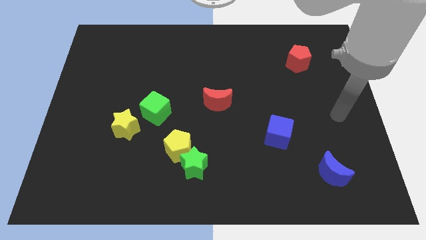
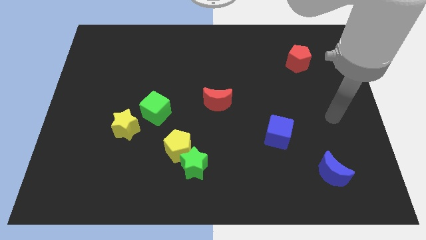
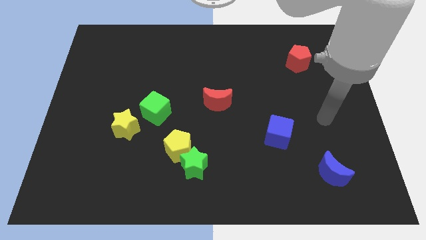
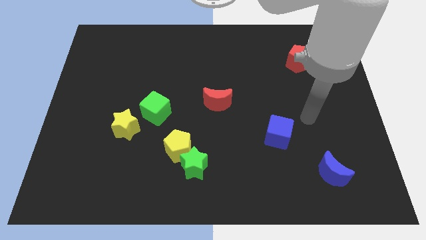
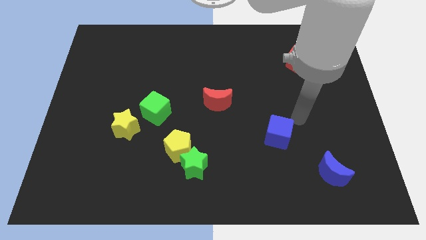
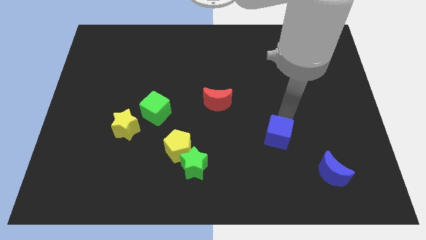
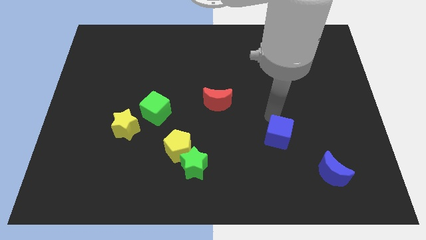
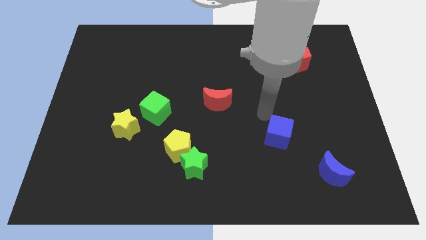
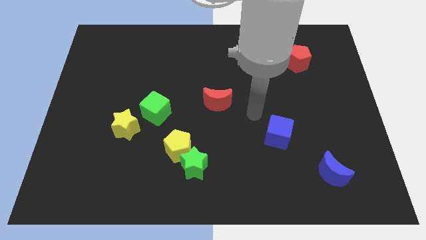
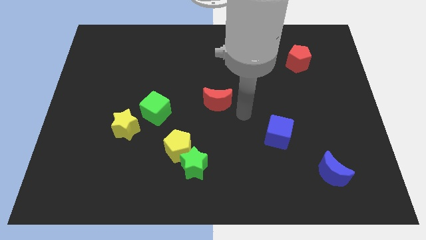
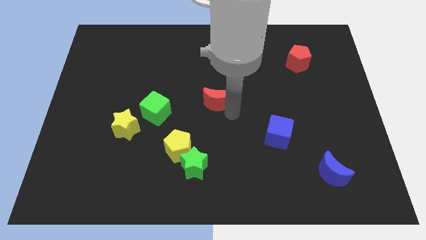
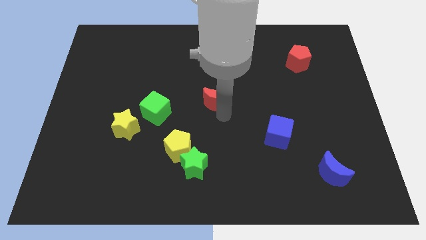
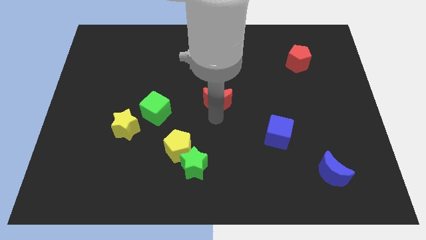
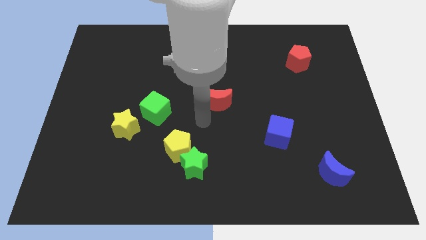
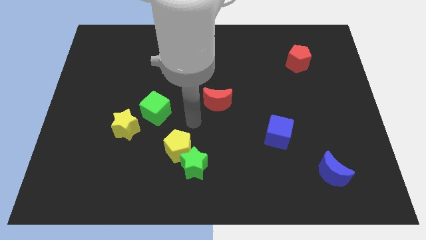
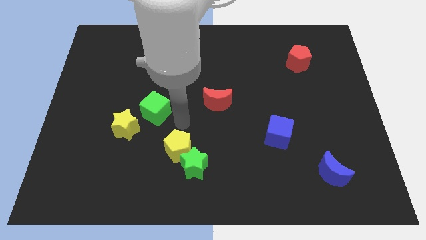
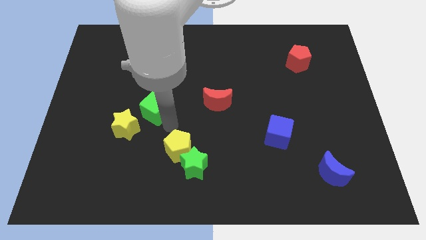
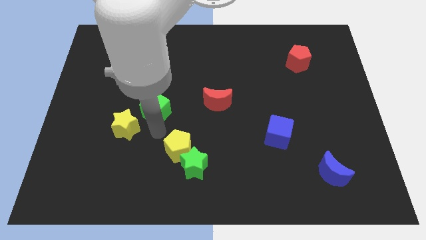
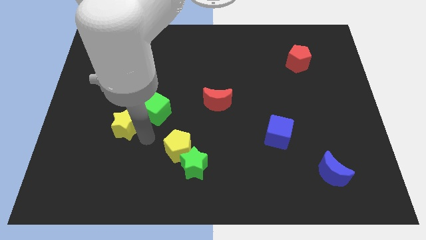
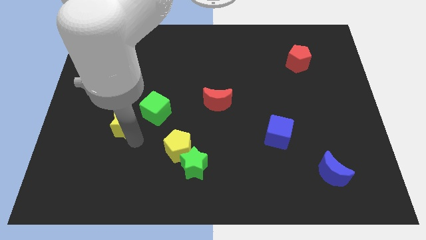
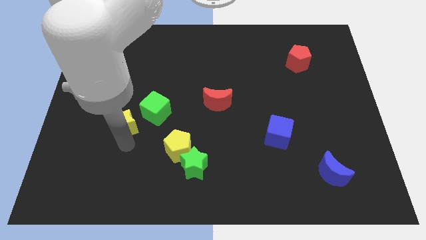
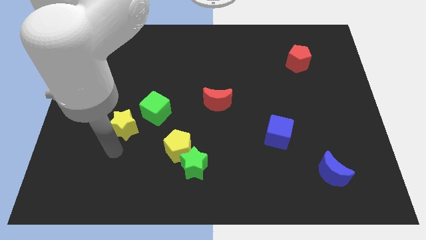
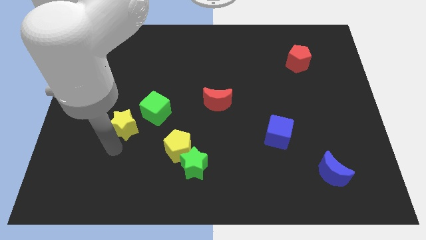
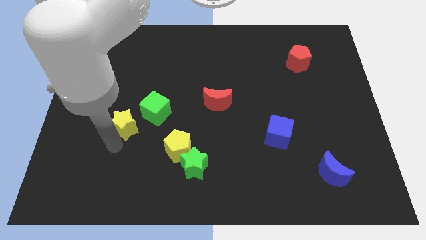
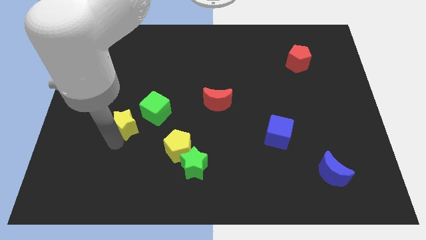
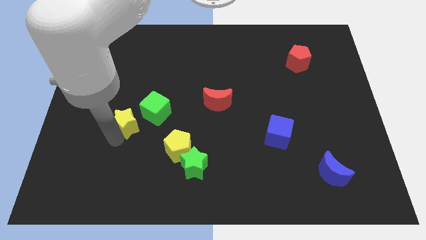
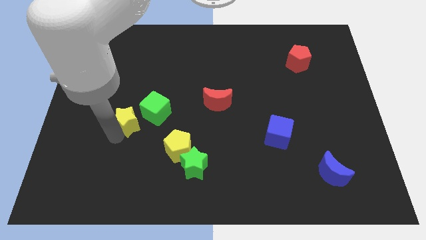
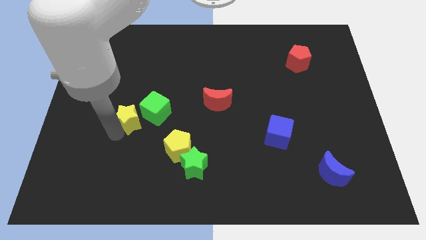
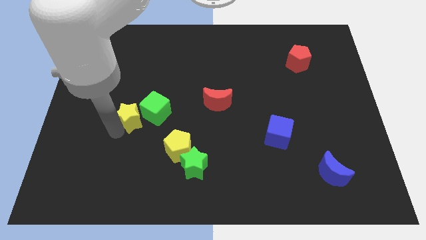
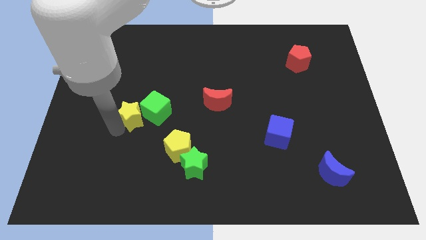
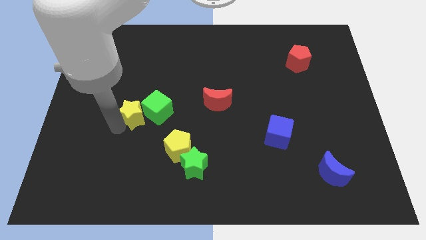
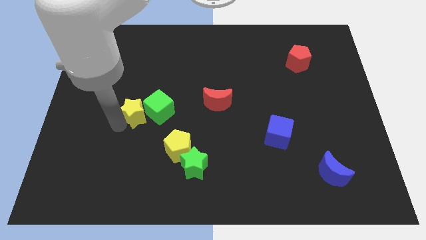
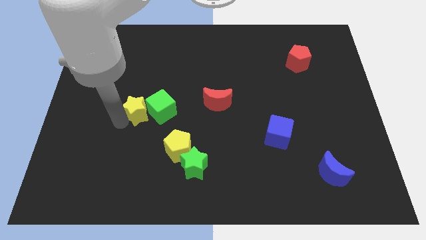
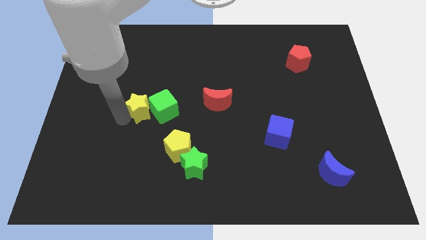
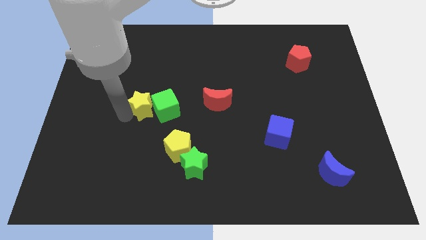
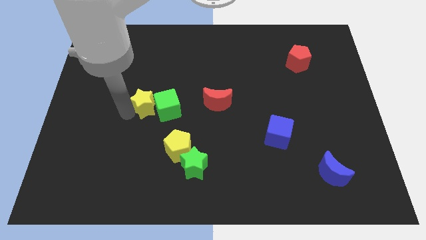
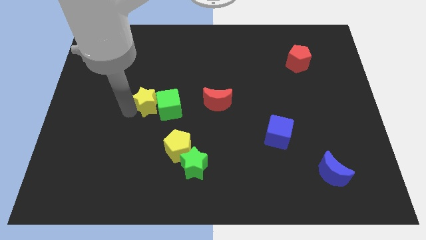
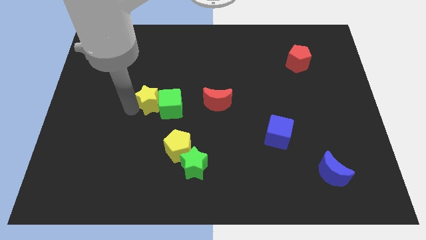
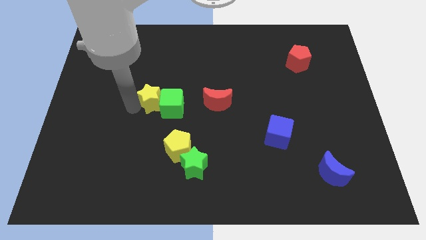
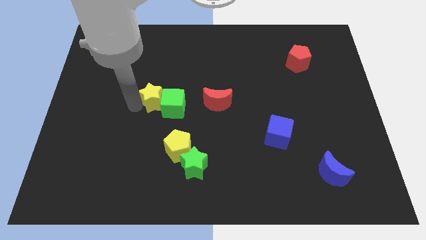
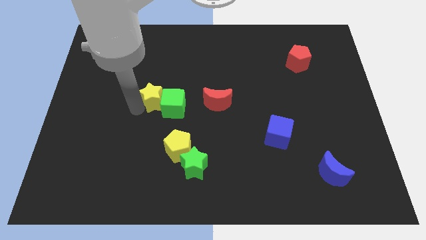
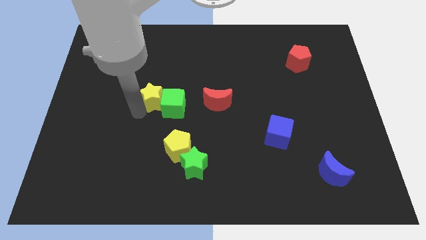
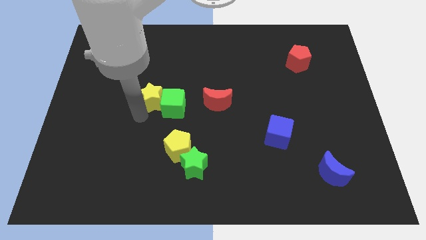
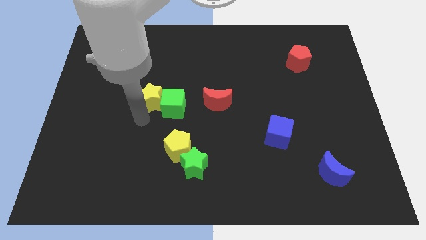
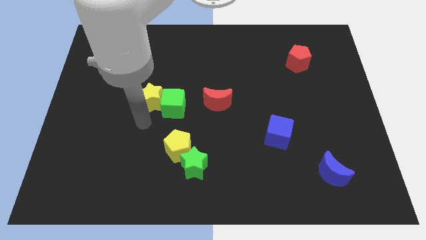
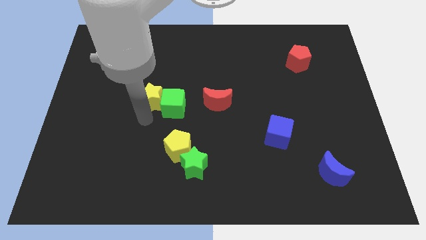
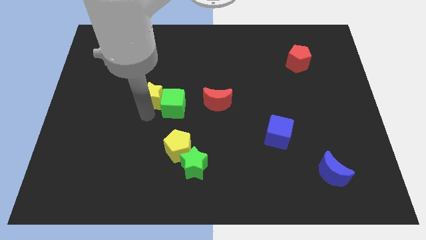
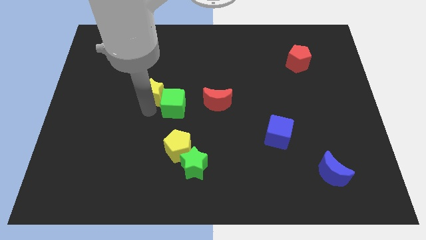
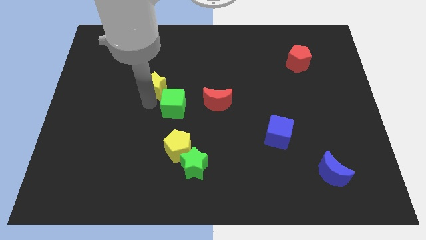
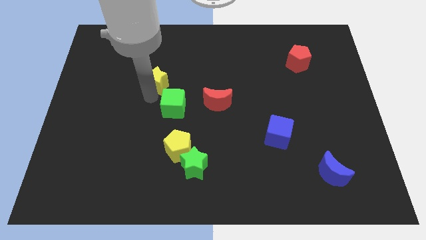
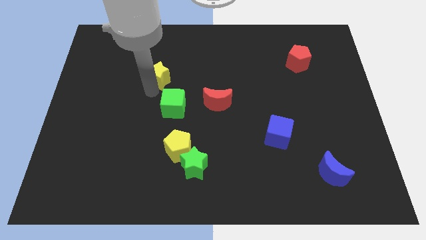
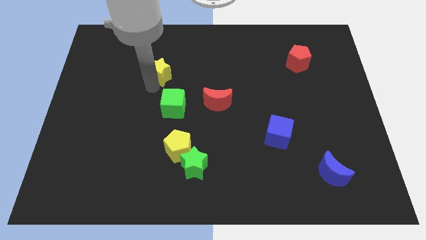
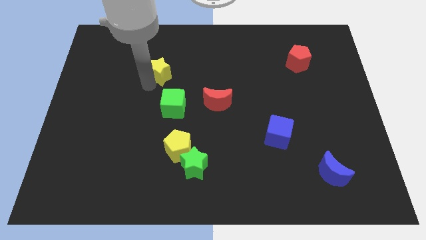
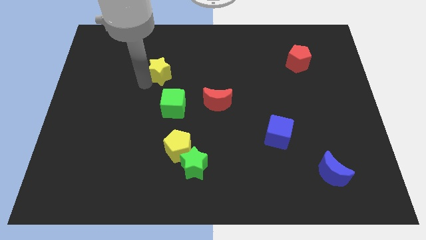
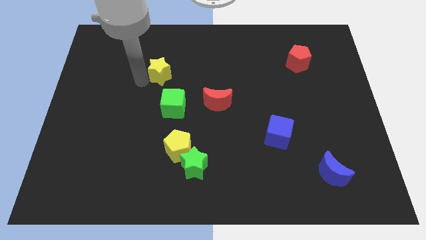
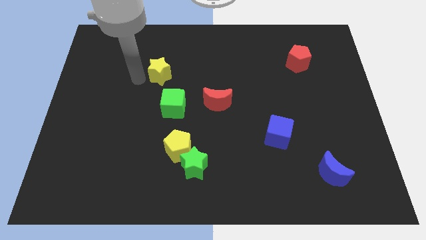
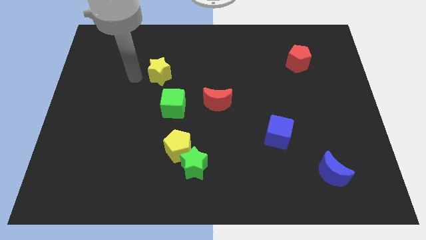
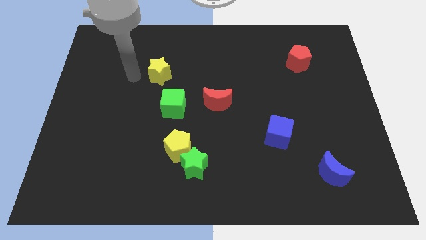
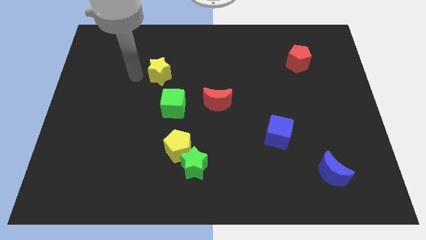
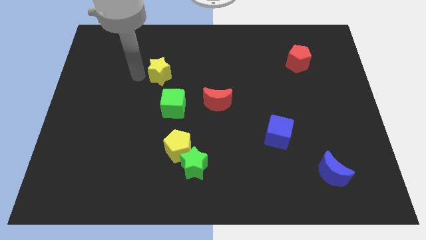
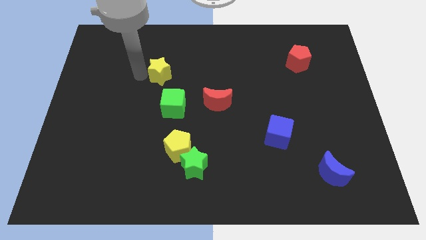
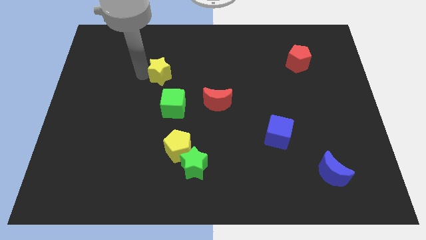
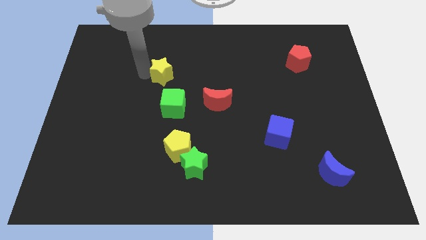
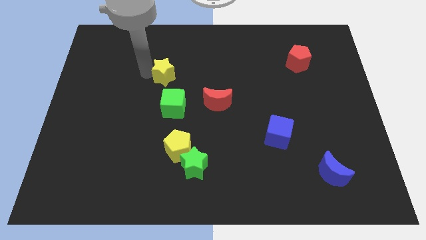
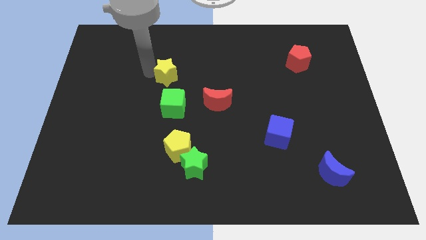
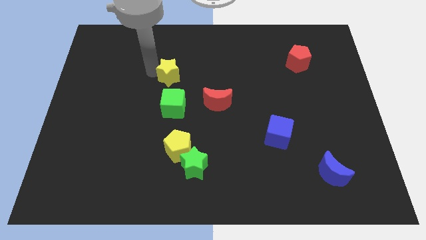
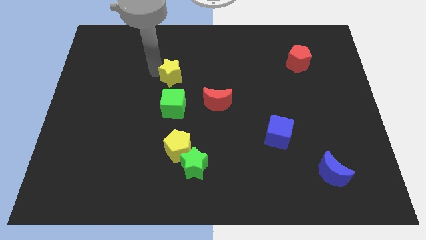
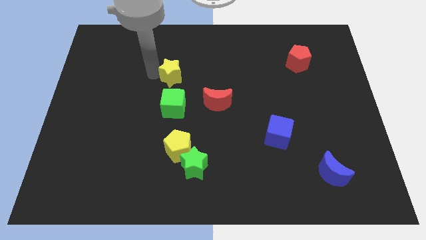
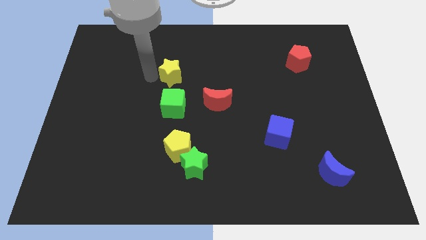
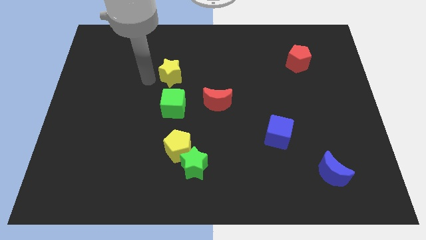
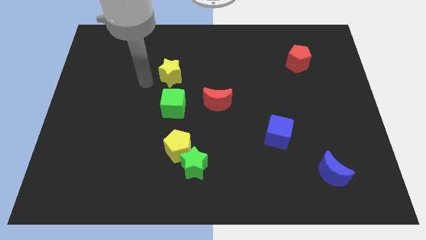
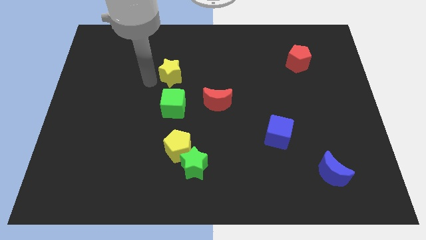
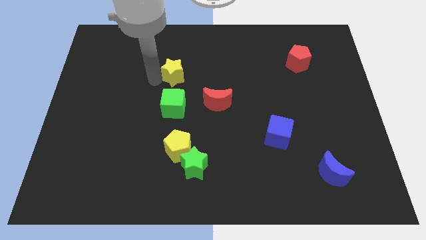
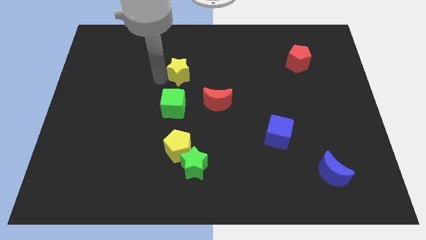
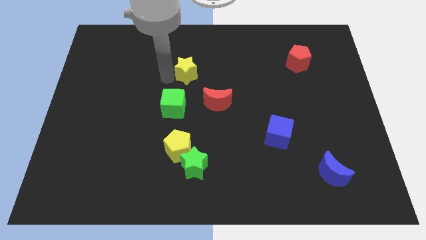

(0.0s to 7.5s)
move the yellow star upwards and to the right diagonally

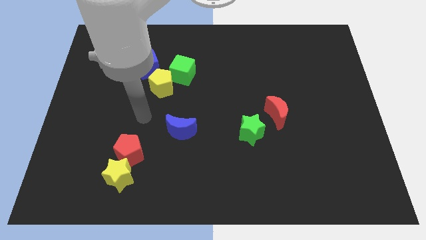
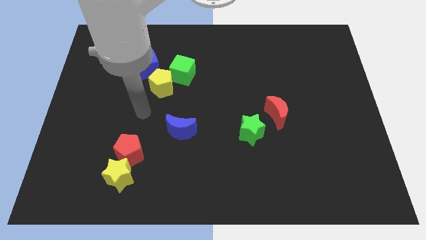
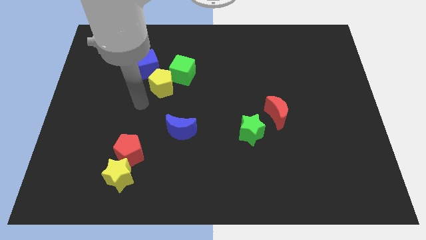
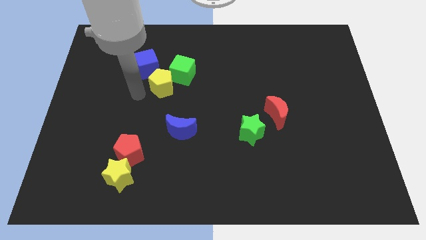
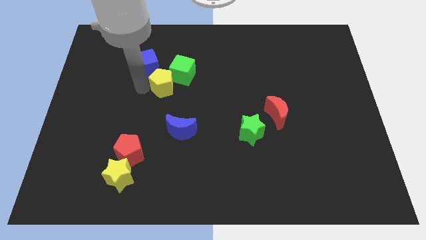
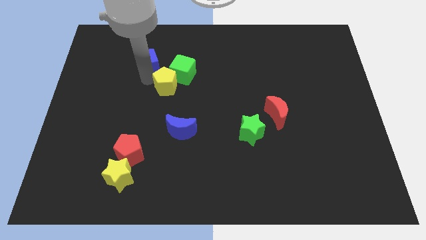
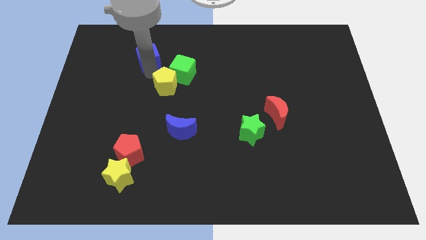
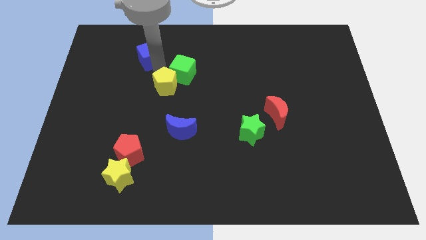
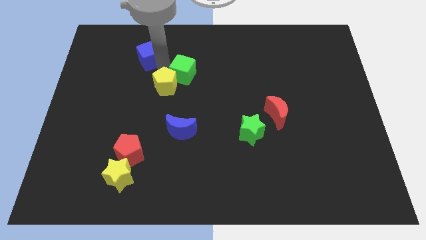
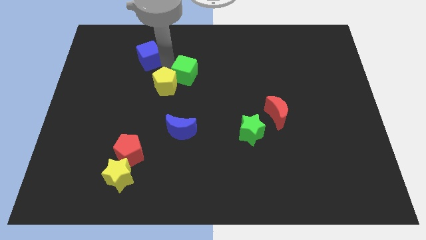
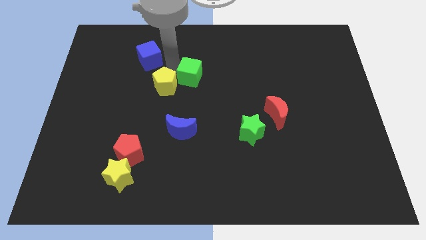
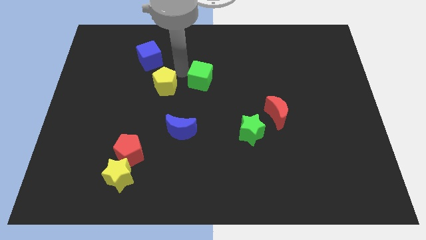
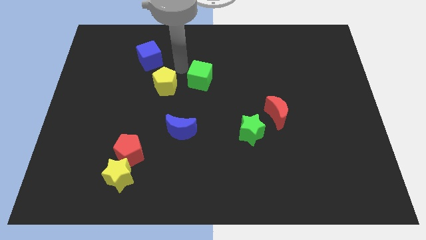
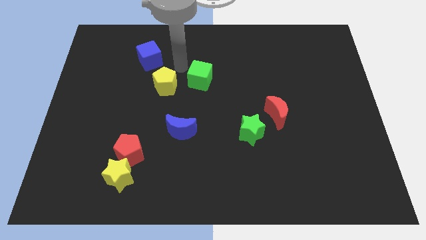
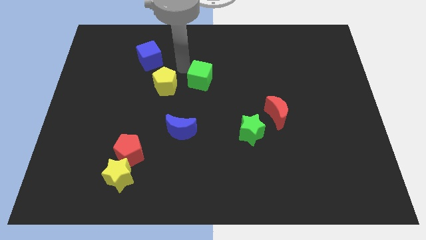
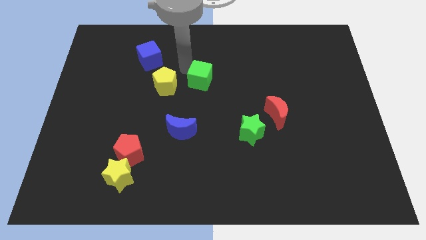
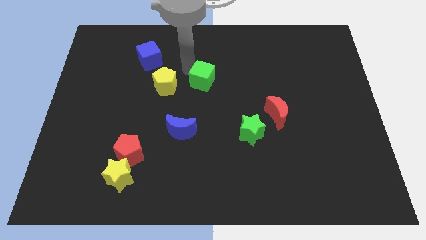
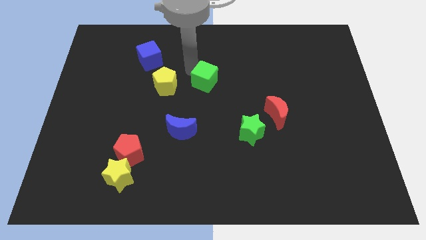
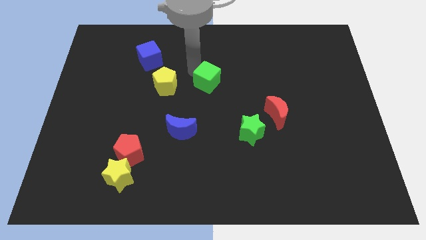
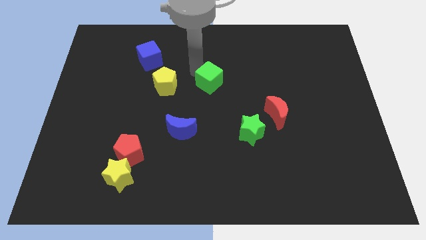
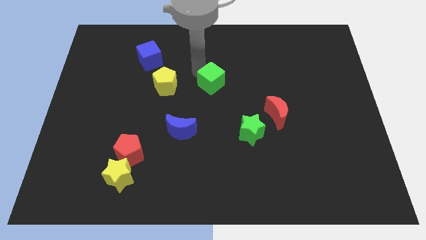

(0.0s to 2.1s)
push the green cube slightly down and right
